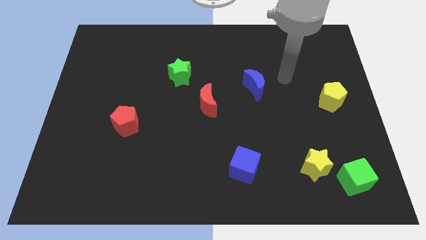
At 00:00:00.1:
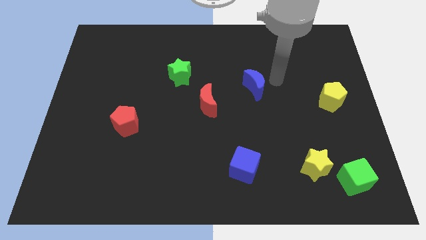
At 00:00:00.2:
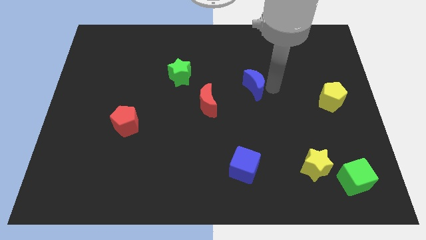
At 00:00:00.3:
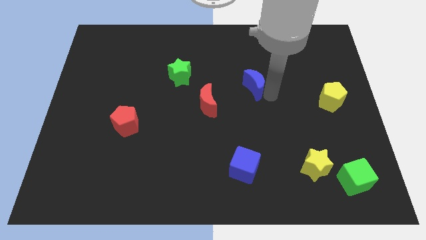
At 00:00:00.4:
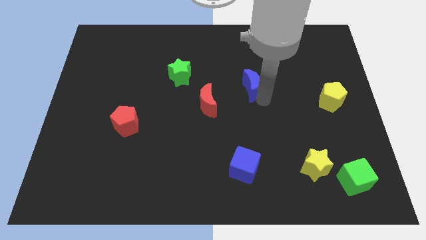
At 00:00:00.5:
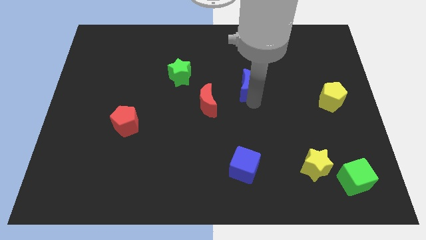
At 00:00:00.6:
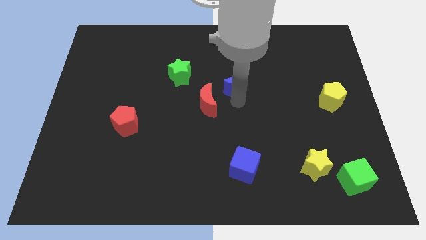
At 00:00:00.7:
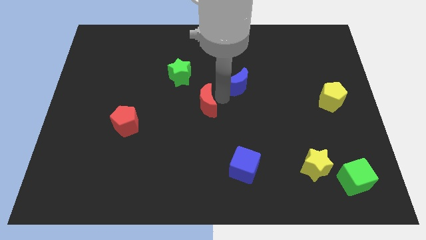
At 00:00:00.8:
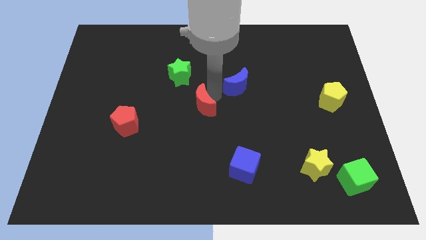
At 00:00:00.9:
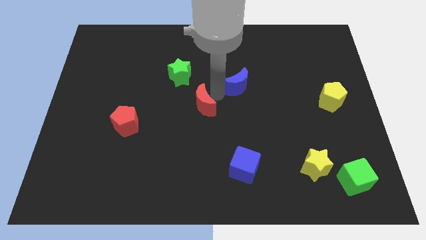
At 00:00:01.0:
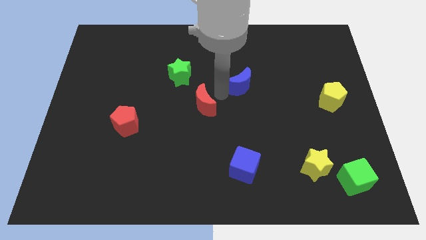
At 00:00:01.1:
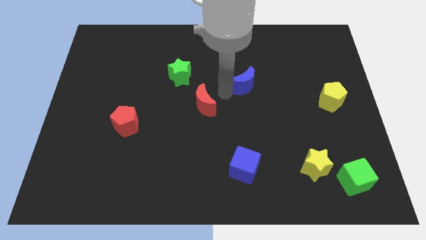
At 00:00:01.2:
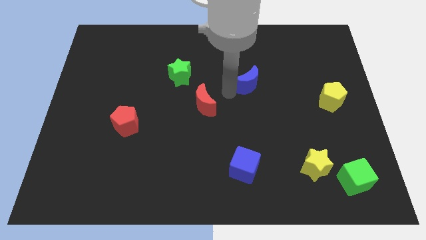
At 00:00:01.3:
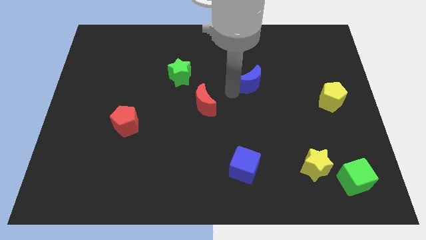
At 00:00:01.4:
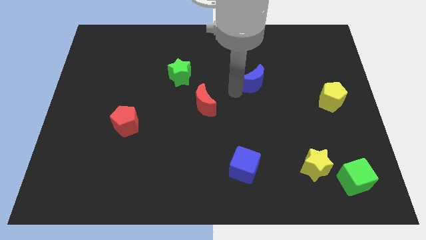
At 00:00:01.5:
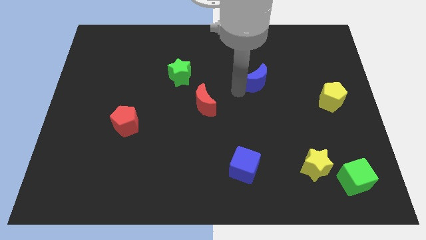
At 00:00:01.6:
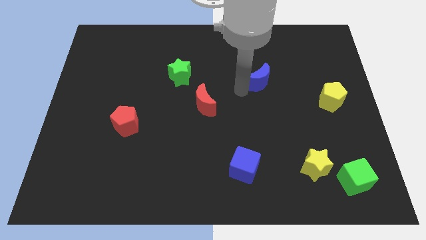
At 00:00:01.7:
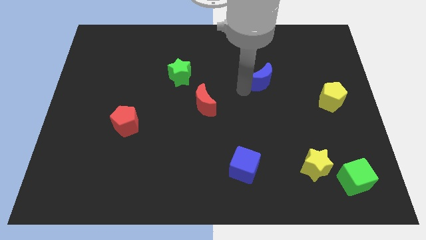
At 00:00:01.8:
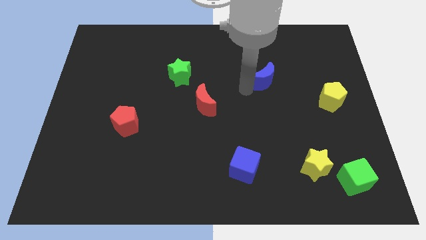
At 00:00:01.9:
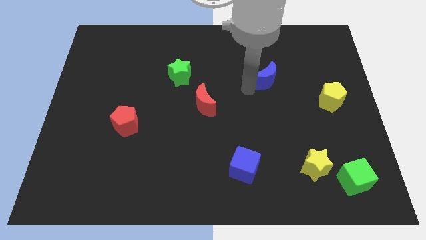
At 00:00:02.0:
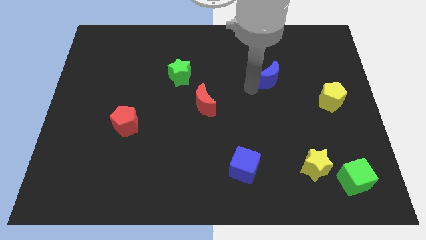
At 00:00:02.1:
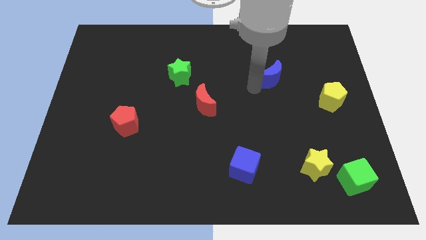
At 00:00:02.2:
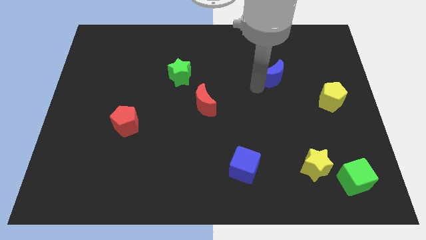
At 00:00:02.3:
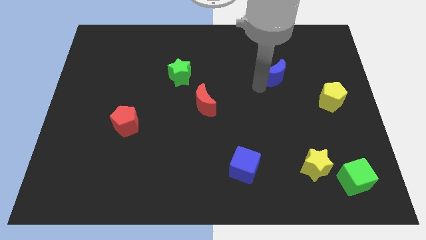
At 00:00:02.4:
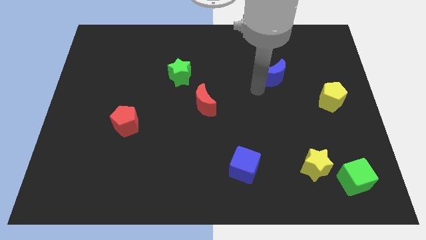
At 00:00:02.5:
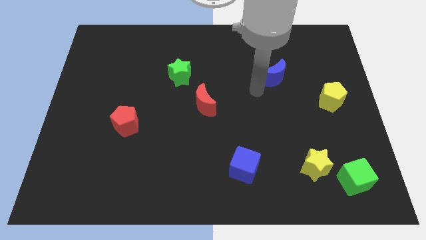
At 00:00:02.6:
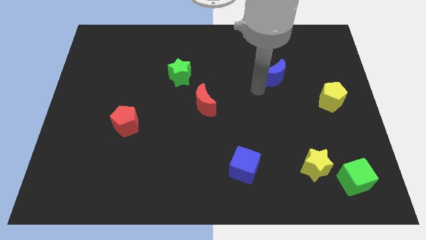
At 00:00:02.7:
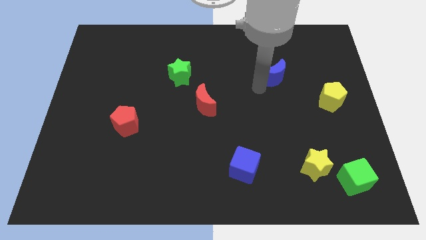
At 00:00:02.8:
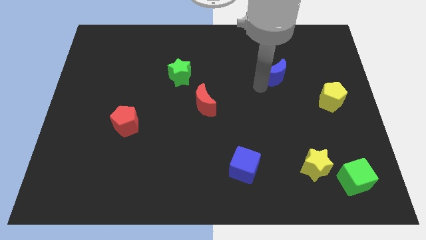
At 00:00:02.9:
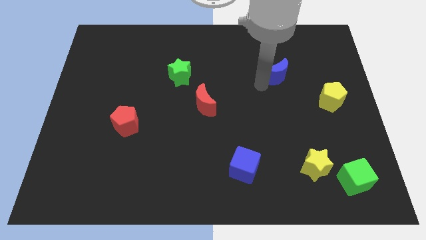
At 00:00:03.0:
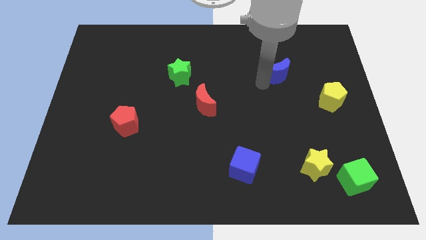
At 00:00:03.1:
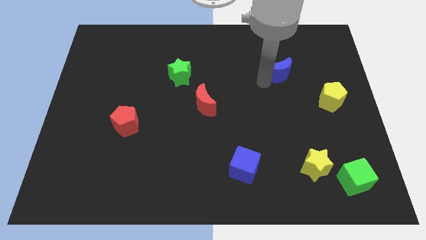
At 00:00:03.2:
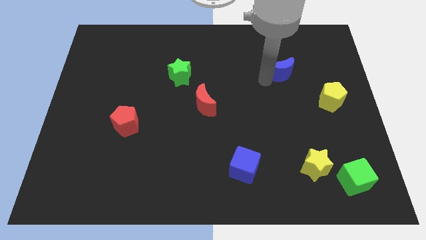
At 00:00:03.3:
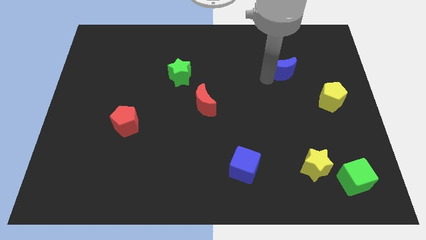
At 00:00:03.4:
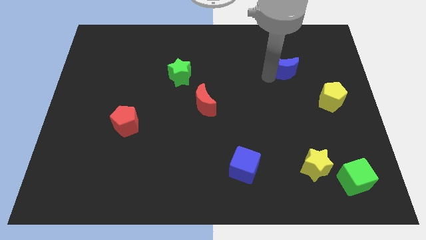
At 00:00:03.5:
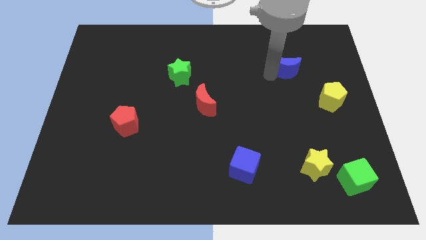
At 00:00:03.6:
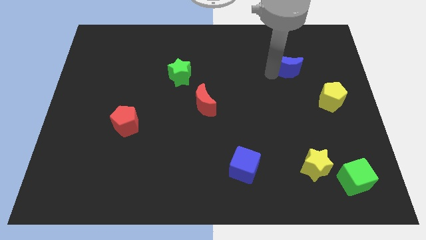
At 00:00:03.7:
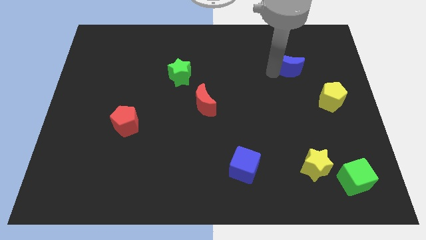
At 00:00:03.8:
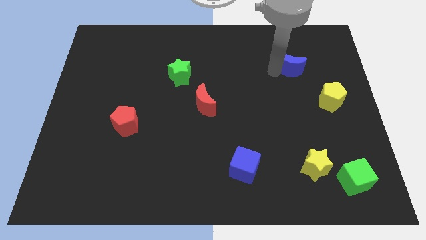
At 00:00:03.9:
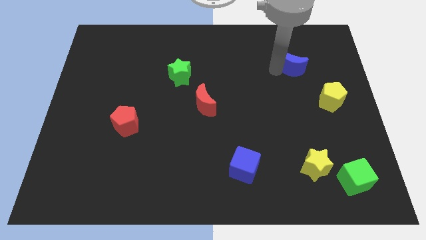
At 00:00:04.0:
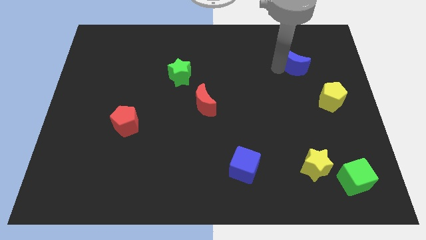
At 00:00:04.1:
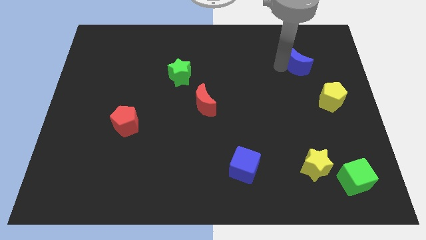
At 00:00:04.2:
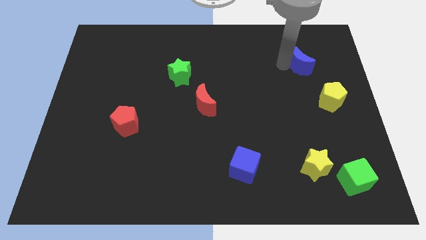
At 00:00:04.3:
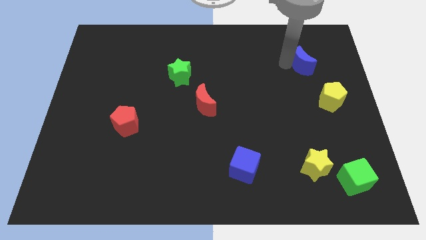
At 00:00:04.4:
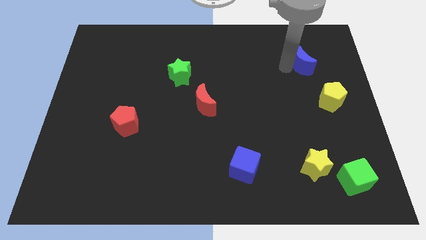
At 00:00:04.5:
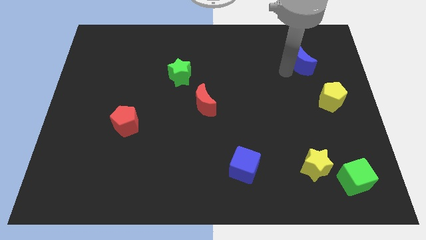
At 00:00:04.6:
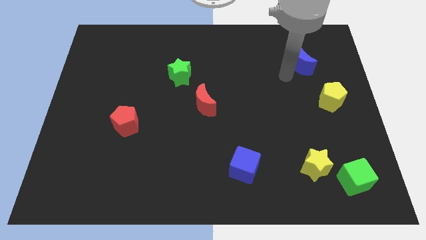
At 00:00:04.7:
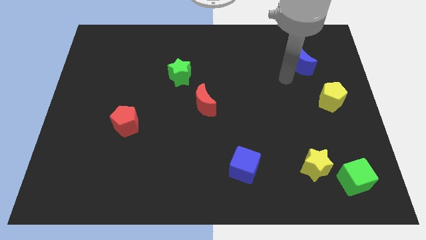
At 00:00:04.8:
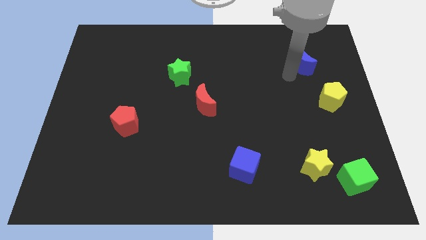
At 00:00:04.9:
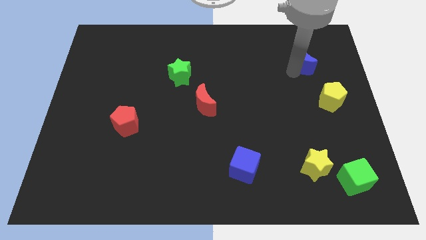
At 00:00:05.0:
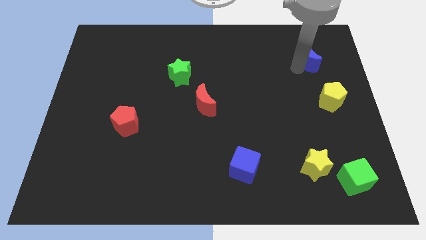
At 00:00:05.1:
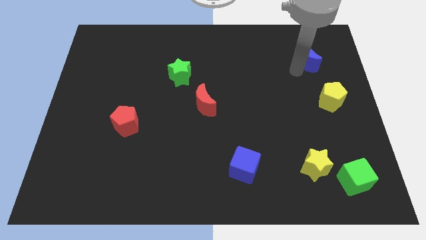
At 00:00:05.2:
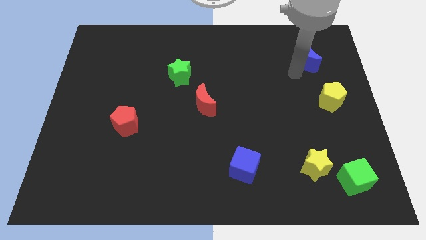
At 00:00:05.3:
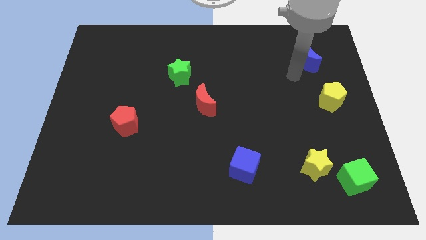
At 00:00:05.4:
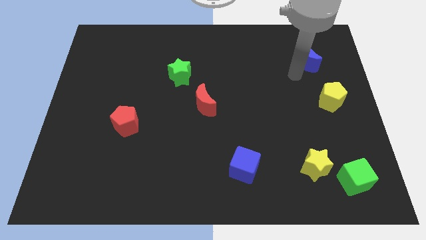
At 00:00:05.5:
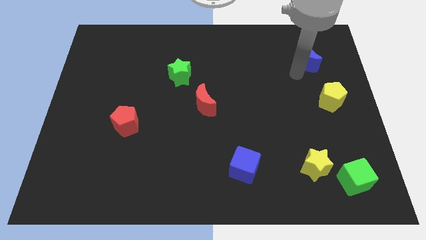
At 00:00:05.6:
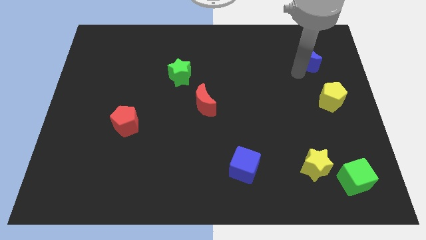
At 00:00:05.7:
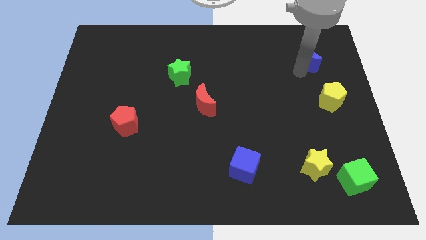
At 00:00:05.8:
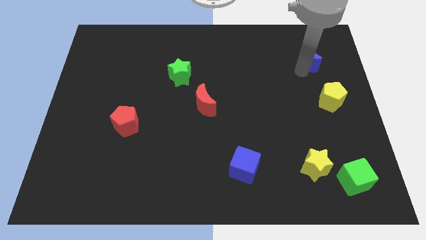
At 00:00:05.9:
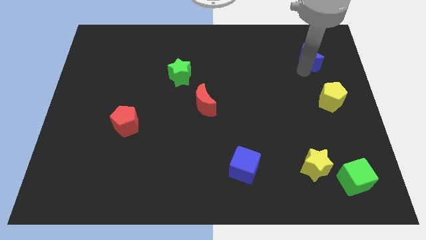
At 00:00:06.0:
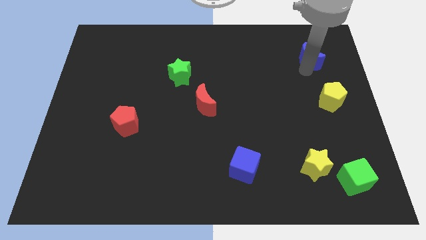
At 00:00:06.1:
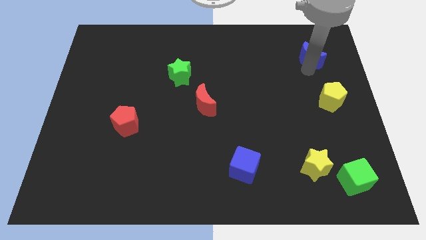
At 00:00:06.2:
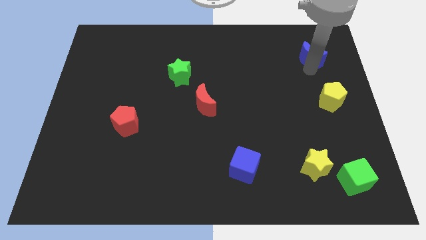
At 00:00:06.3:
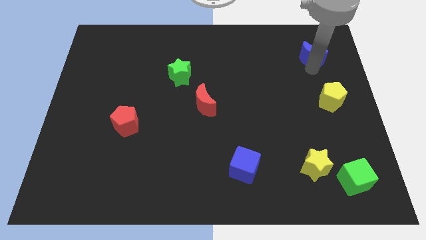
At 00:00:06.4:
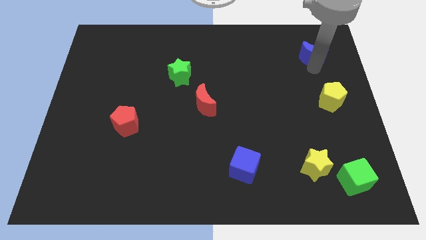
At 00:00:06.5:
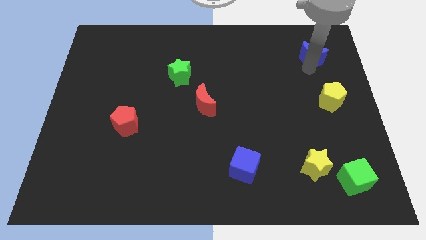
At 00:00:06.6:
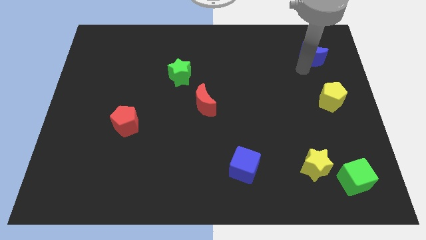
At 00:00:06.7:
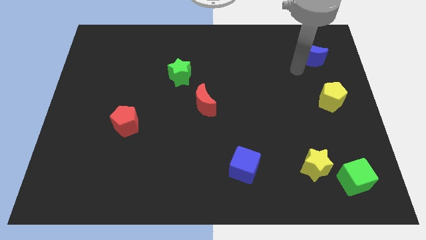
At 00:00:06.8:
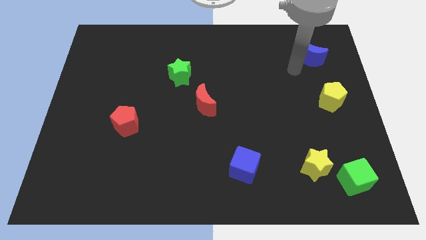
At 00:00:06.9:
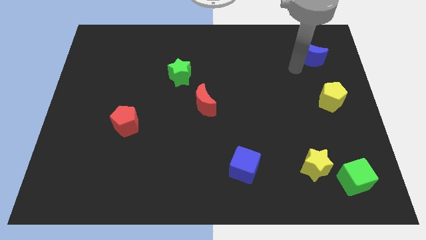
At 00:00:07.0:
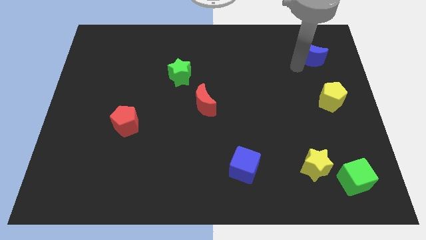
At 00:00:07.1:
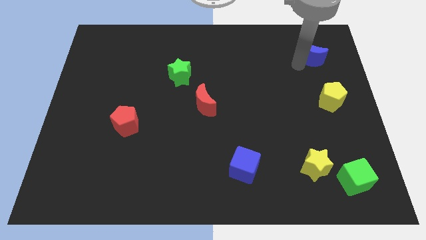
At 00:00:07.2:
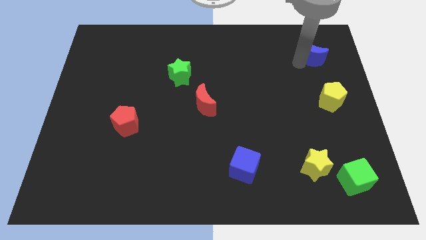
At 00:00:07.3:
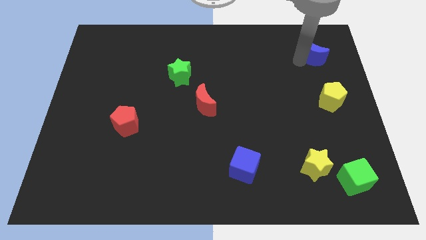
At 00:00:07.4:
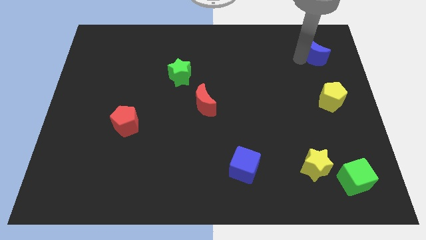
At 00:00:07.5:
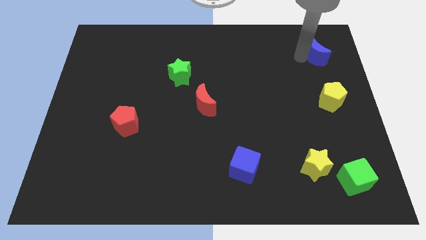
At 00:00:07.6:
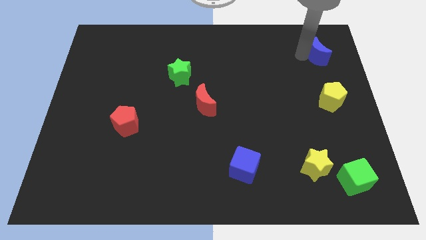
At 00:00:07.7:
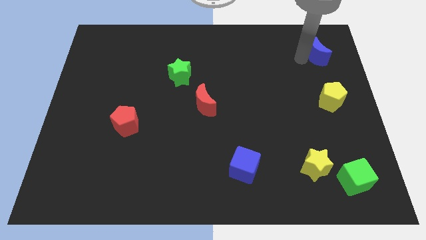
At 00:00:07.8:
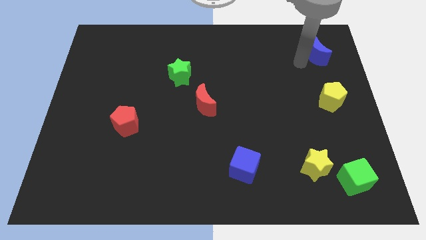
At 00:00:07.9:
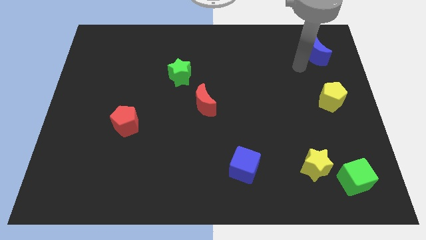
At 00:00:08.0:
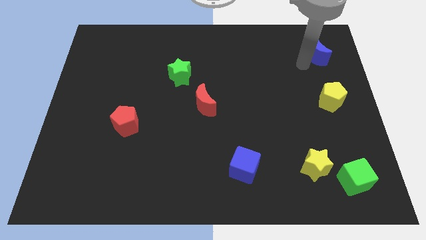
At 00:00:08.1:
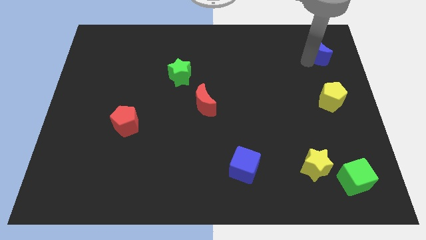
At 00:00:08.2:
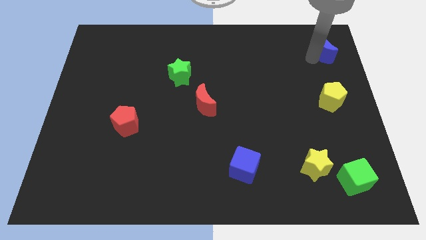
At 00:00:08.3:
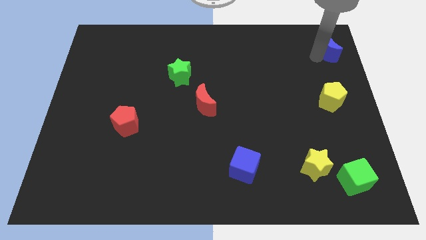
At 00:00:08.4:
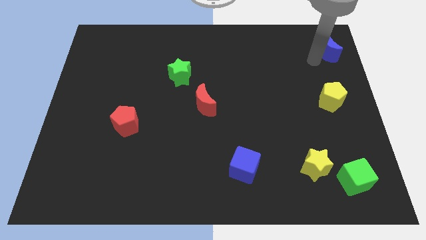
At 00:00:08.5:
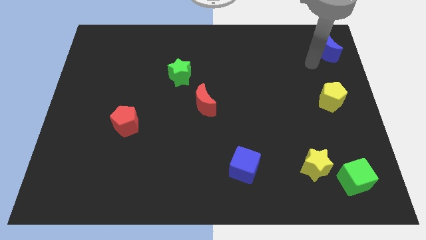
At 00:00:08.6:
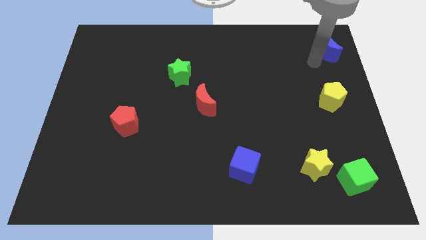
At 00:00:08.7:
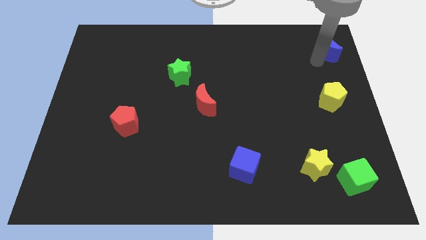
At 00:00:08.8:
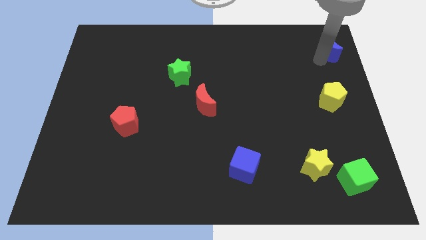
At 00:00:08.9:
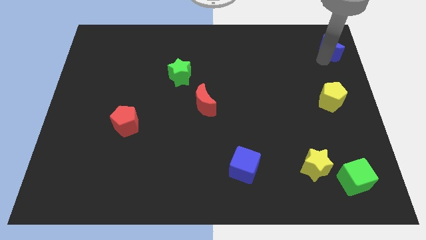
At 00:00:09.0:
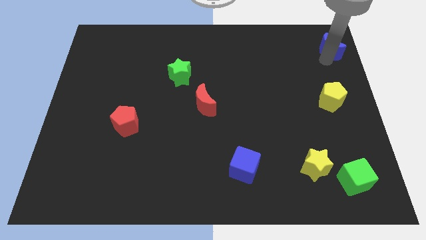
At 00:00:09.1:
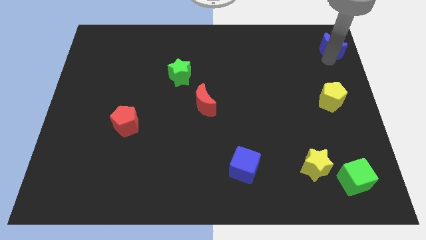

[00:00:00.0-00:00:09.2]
slide the blue moon to the upper right corner
